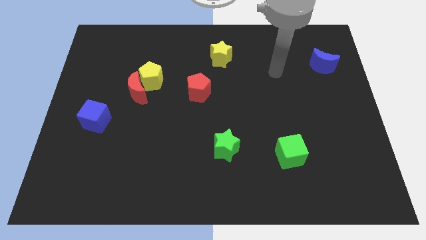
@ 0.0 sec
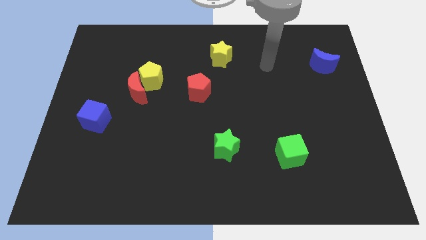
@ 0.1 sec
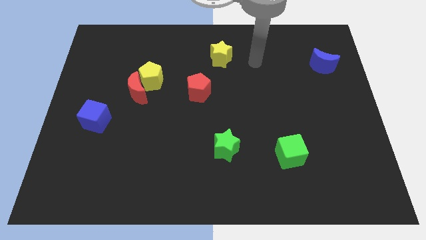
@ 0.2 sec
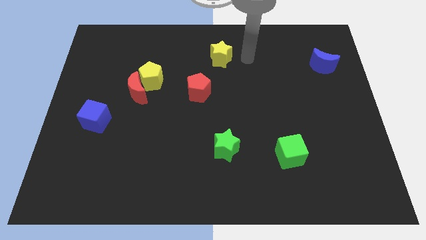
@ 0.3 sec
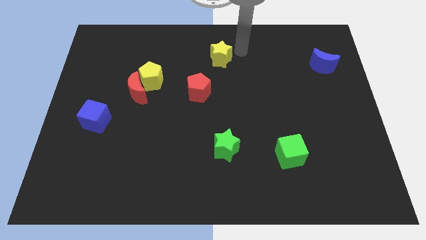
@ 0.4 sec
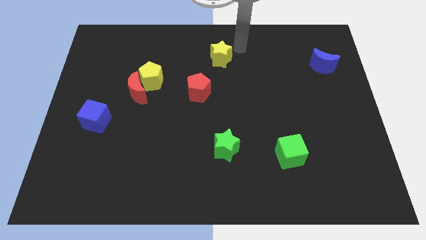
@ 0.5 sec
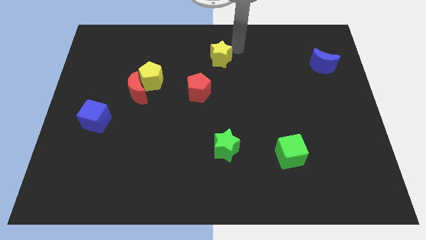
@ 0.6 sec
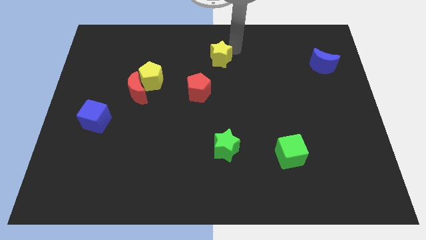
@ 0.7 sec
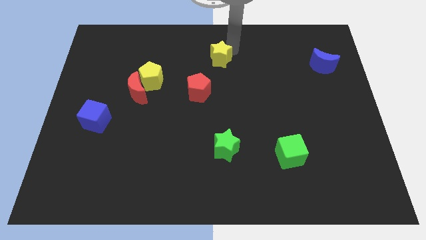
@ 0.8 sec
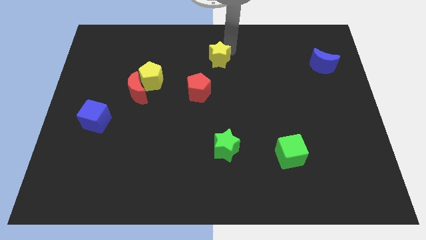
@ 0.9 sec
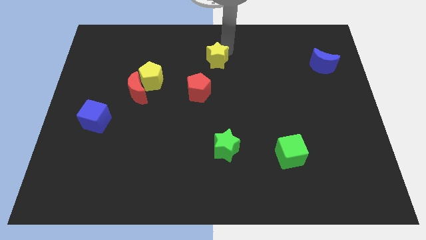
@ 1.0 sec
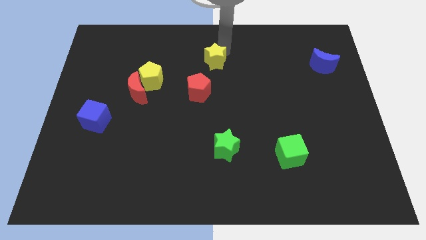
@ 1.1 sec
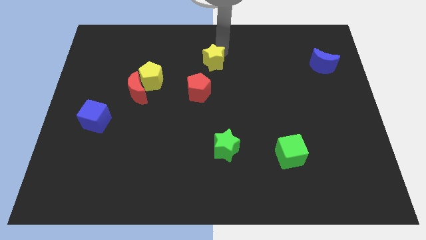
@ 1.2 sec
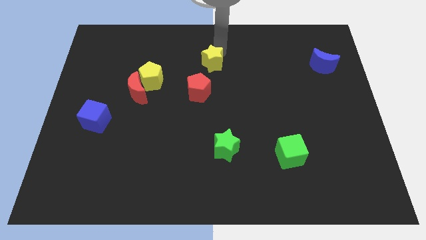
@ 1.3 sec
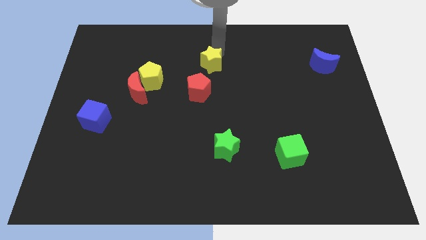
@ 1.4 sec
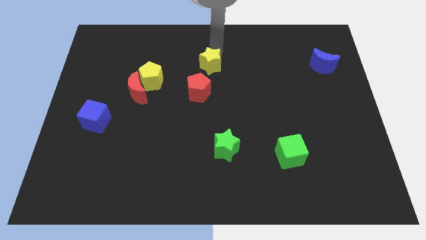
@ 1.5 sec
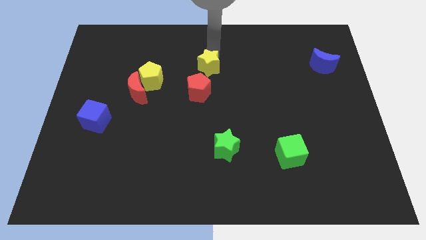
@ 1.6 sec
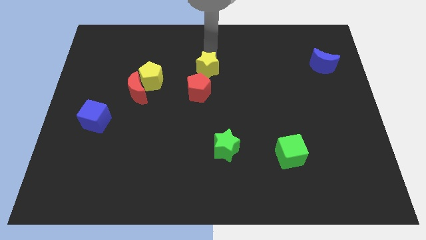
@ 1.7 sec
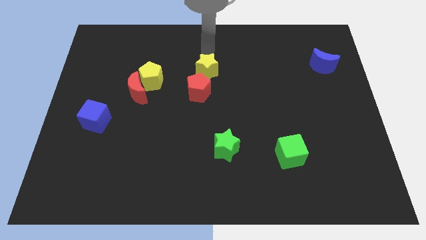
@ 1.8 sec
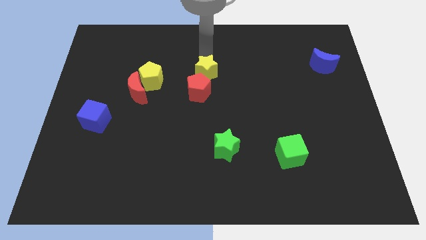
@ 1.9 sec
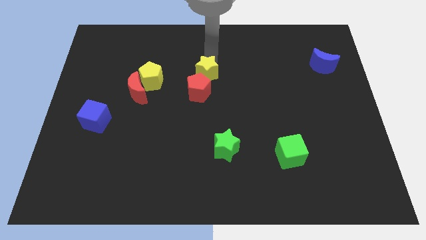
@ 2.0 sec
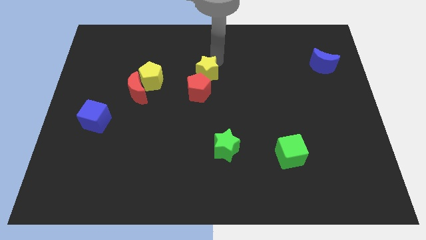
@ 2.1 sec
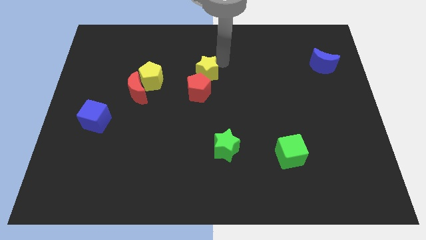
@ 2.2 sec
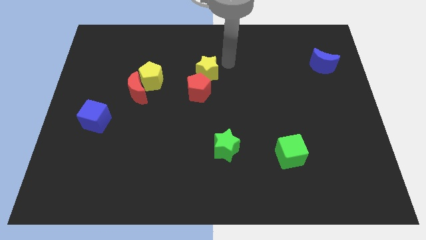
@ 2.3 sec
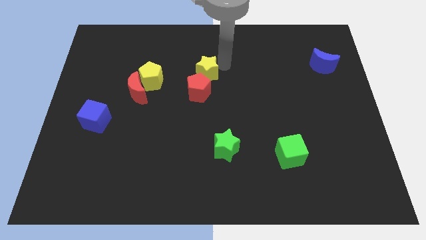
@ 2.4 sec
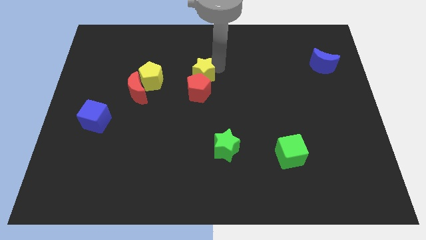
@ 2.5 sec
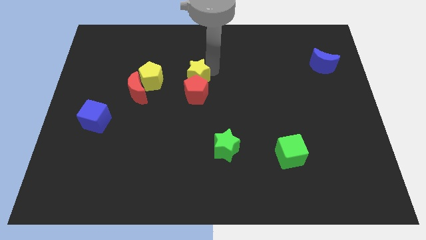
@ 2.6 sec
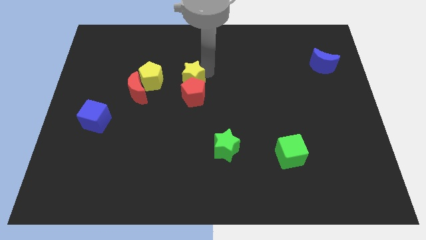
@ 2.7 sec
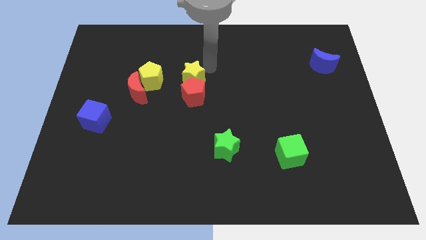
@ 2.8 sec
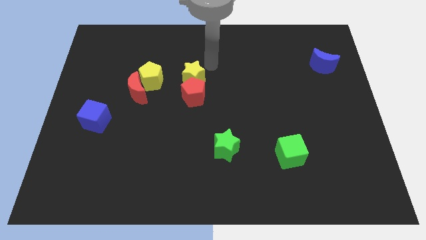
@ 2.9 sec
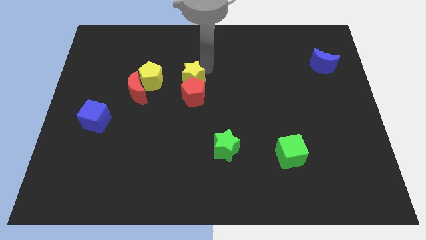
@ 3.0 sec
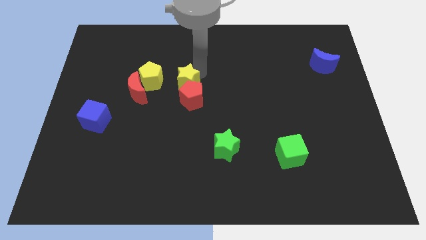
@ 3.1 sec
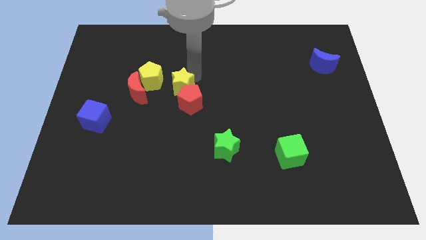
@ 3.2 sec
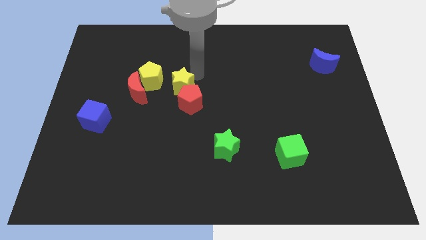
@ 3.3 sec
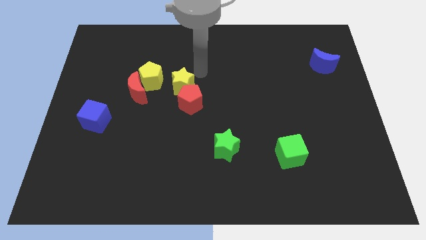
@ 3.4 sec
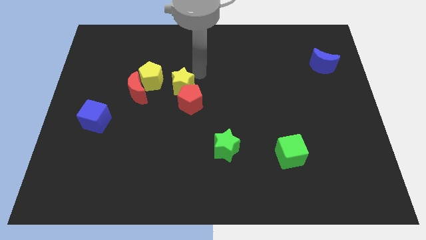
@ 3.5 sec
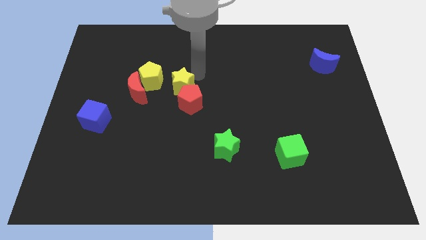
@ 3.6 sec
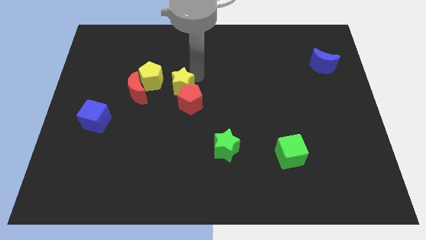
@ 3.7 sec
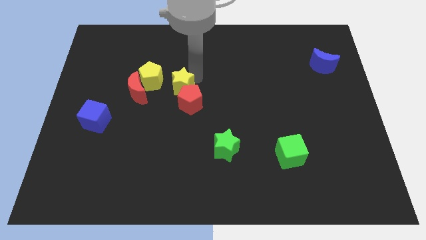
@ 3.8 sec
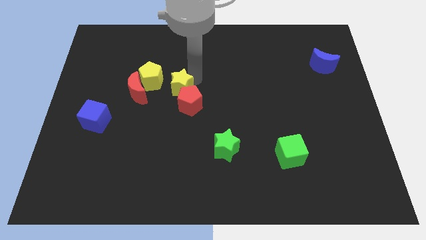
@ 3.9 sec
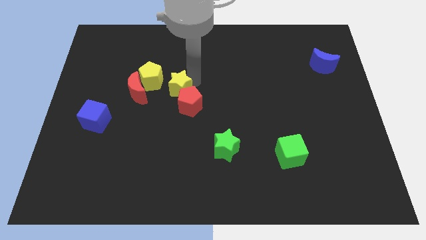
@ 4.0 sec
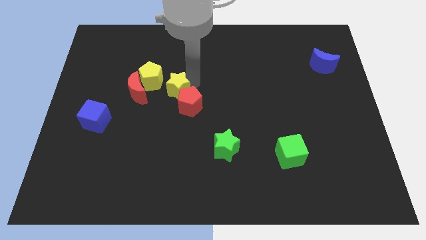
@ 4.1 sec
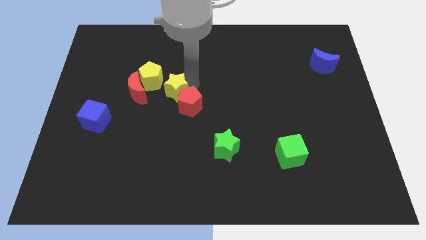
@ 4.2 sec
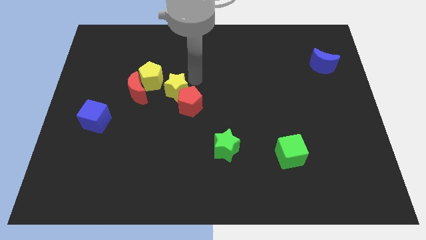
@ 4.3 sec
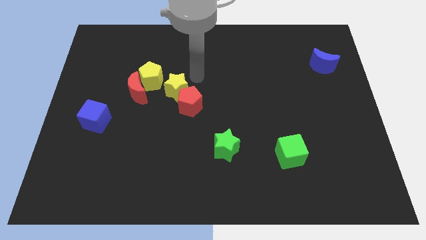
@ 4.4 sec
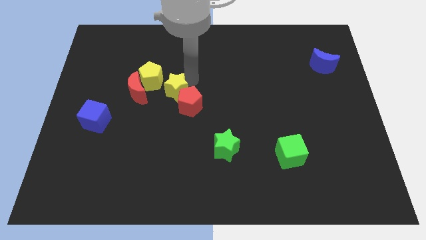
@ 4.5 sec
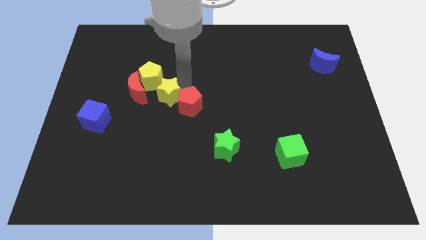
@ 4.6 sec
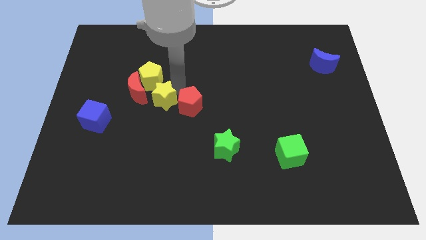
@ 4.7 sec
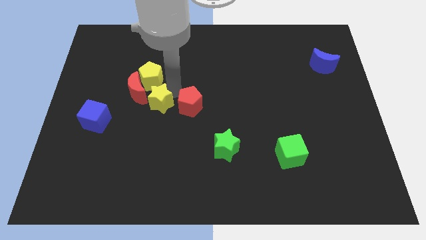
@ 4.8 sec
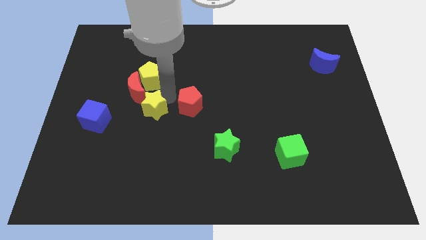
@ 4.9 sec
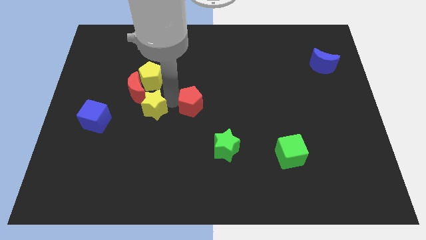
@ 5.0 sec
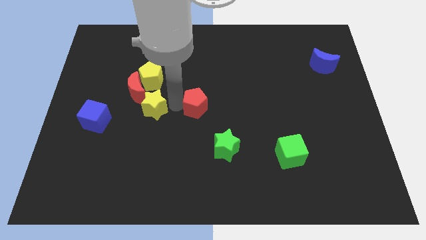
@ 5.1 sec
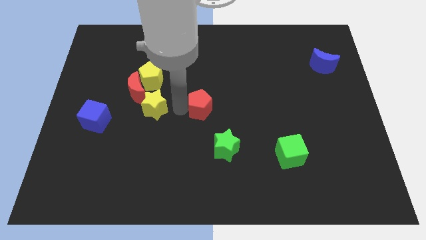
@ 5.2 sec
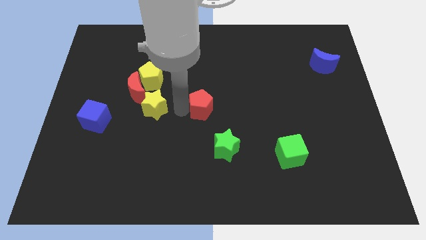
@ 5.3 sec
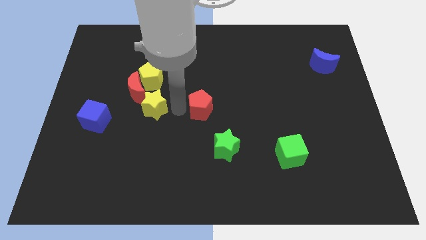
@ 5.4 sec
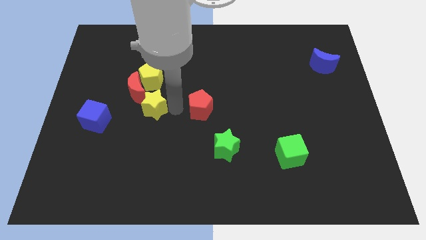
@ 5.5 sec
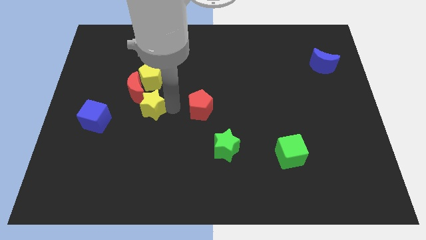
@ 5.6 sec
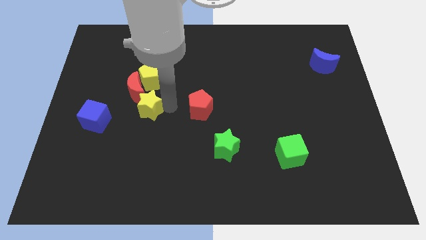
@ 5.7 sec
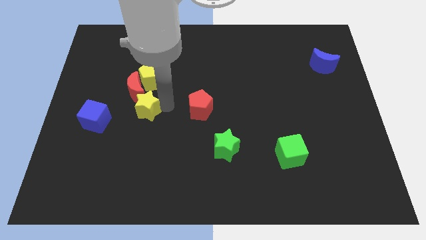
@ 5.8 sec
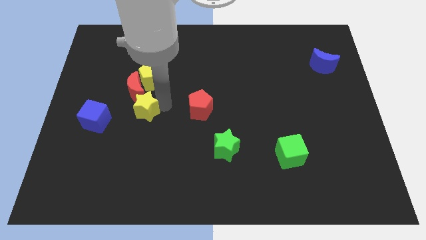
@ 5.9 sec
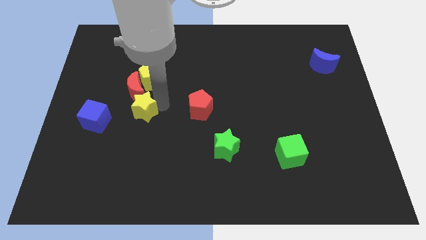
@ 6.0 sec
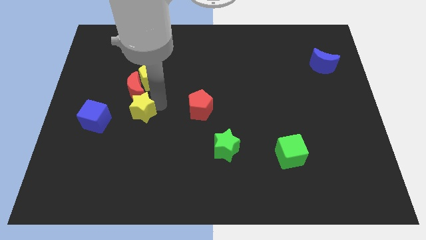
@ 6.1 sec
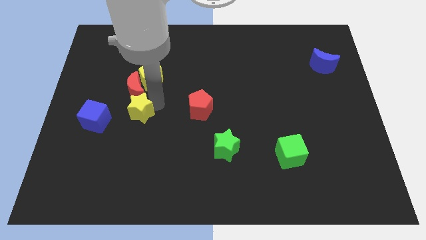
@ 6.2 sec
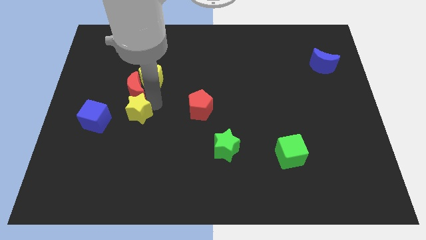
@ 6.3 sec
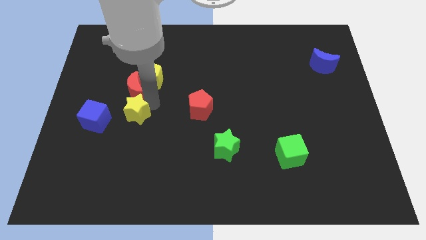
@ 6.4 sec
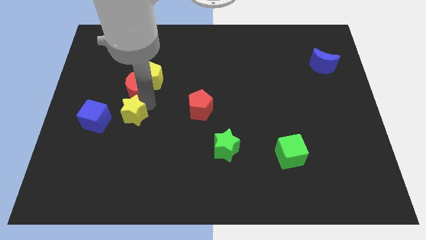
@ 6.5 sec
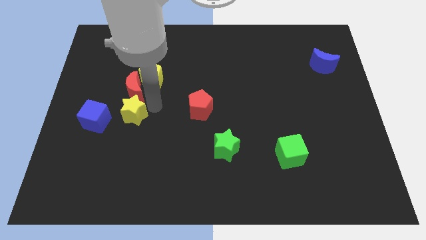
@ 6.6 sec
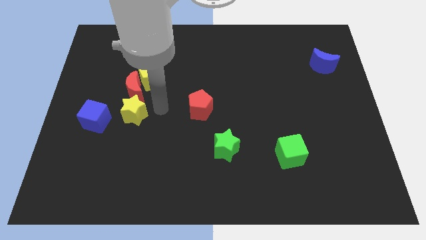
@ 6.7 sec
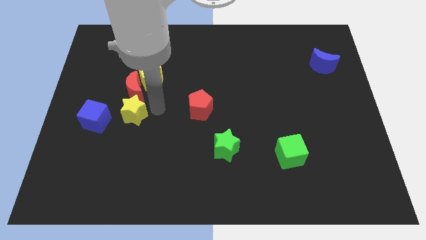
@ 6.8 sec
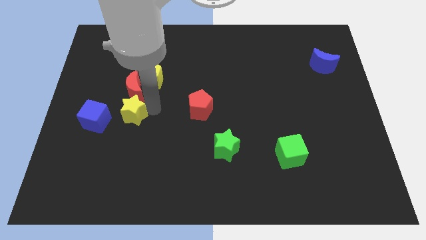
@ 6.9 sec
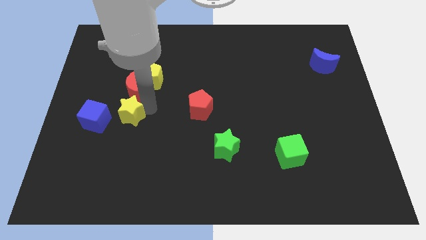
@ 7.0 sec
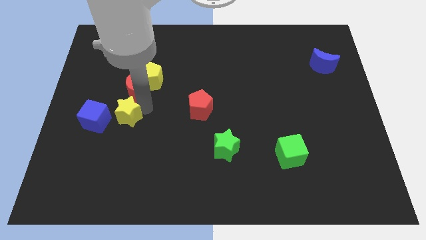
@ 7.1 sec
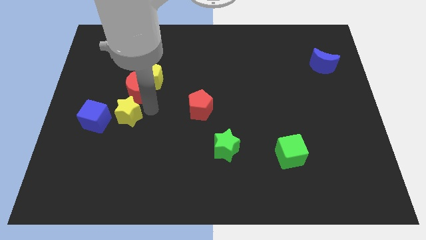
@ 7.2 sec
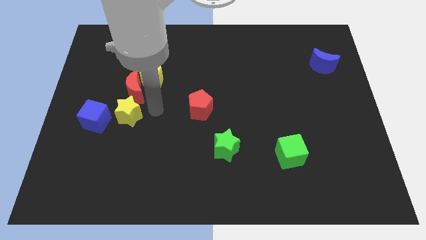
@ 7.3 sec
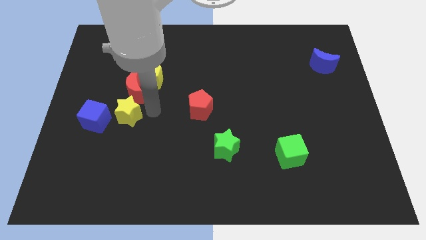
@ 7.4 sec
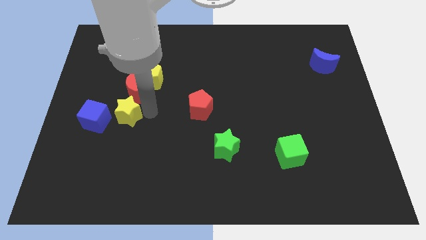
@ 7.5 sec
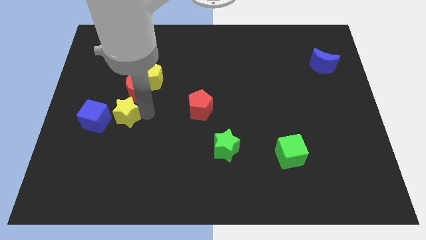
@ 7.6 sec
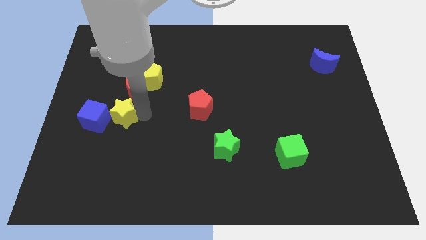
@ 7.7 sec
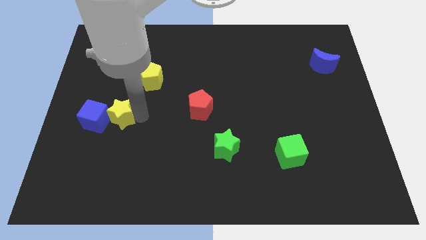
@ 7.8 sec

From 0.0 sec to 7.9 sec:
push the yellow star to the blue cube
